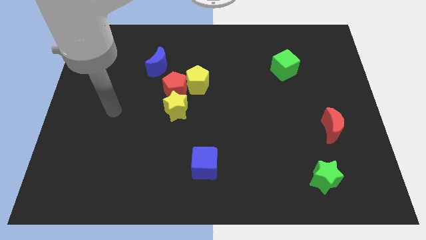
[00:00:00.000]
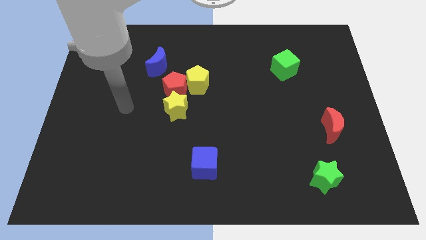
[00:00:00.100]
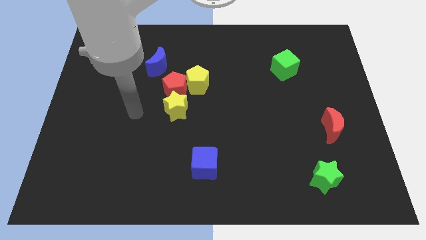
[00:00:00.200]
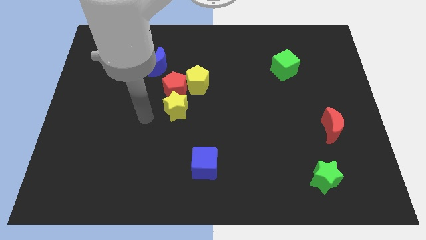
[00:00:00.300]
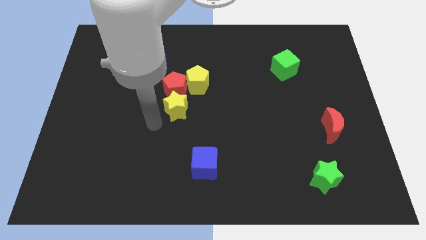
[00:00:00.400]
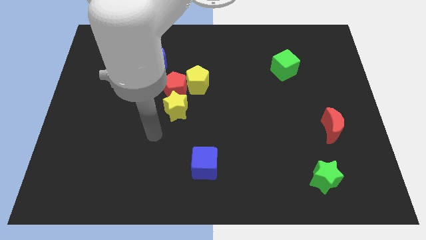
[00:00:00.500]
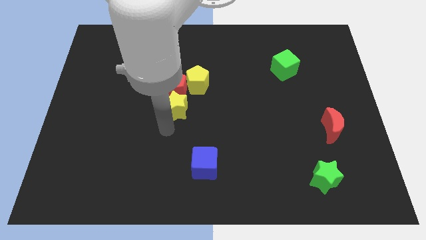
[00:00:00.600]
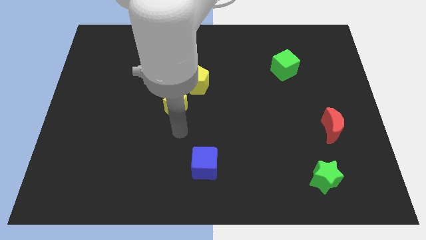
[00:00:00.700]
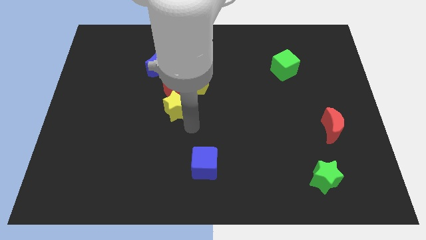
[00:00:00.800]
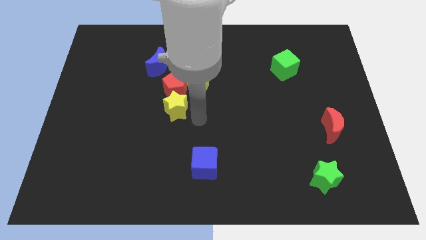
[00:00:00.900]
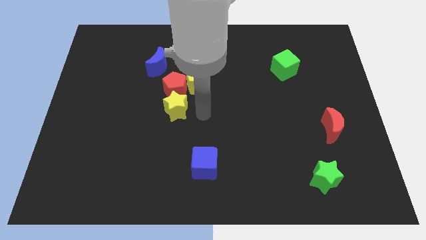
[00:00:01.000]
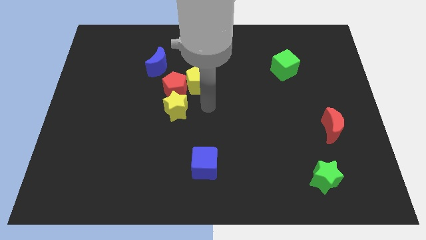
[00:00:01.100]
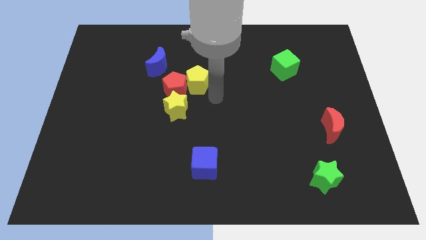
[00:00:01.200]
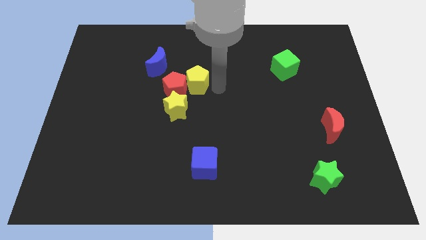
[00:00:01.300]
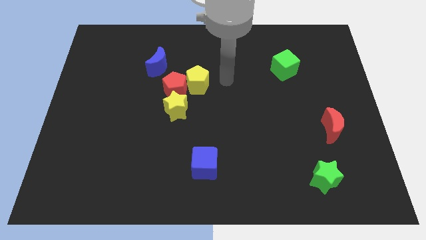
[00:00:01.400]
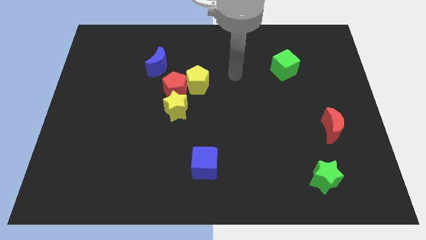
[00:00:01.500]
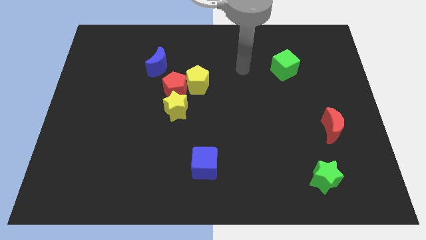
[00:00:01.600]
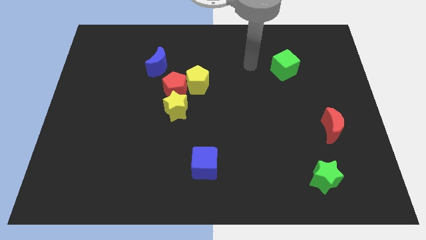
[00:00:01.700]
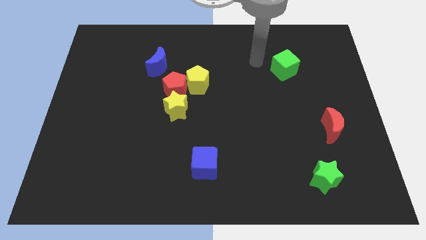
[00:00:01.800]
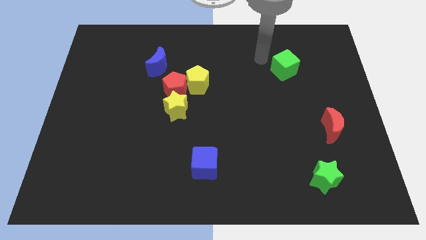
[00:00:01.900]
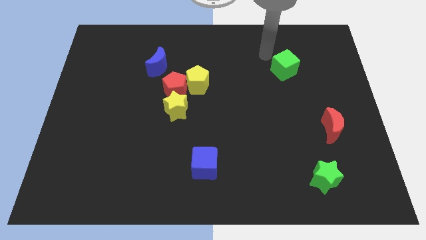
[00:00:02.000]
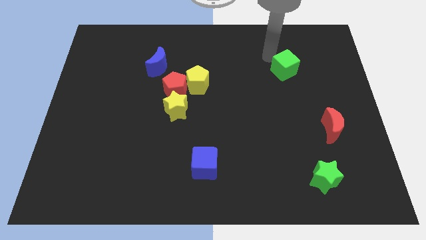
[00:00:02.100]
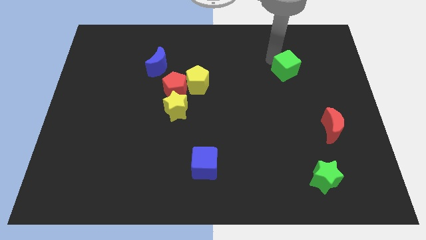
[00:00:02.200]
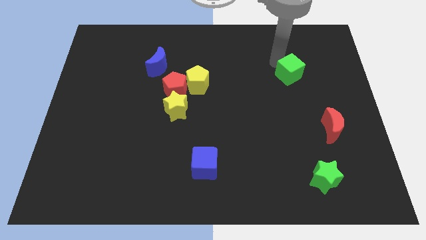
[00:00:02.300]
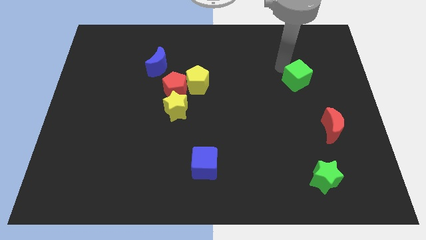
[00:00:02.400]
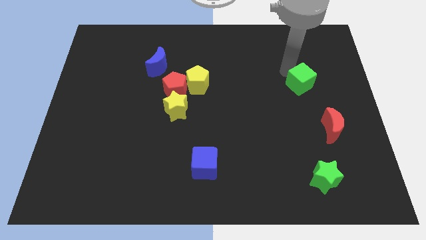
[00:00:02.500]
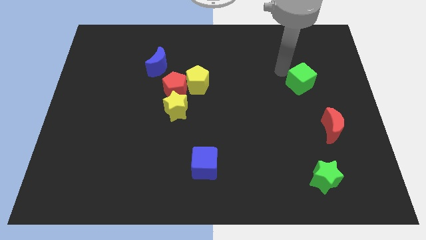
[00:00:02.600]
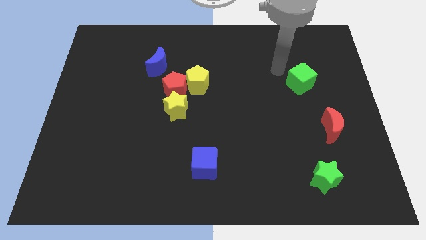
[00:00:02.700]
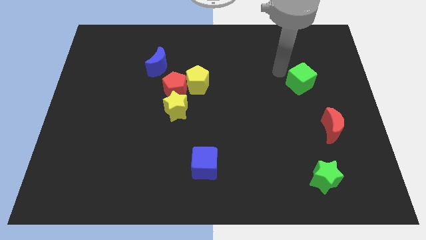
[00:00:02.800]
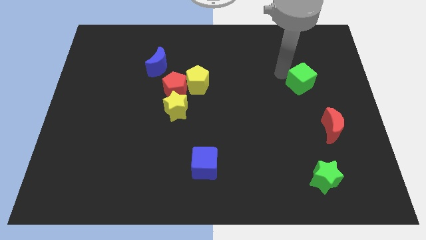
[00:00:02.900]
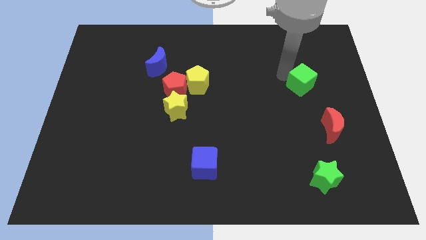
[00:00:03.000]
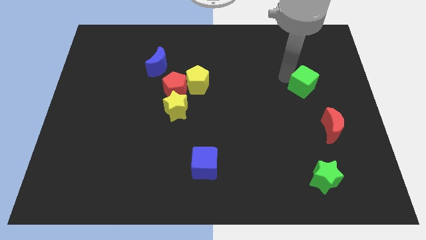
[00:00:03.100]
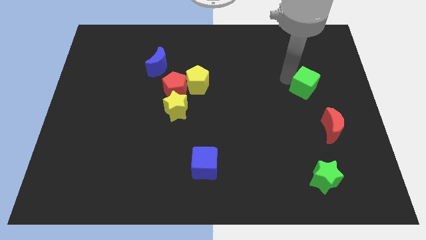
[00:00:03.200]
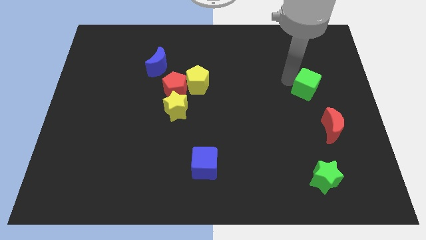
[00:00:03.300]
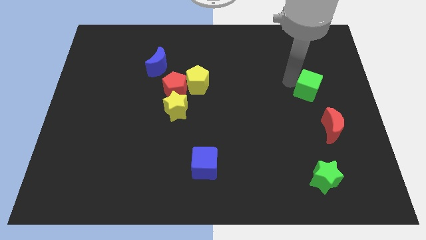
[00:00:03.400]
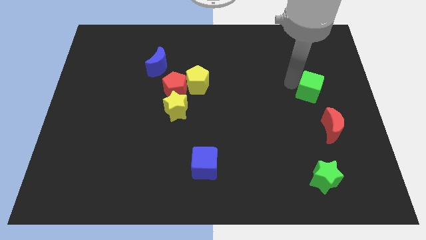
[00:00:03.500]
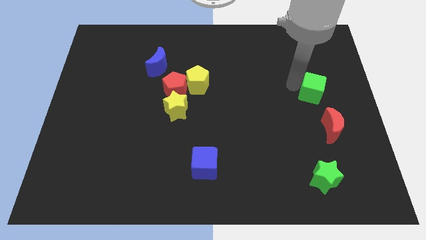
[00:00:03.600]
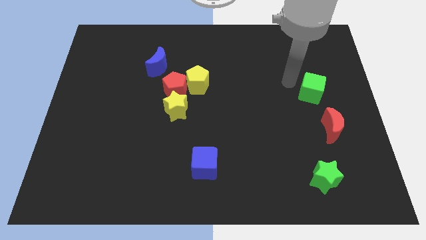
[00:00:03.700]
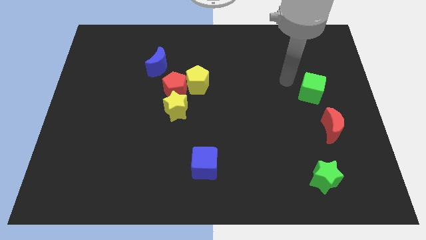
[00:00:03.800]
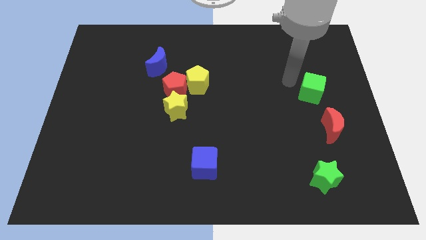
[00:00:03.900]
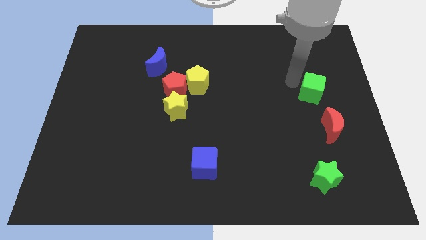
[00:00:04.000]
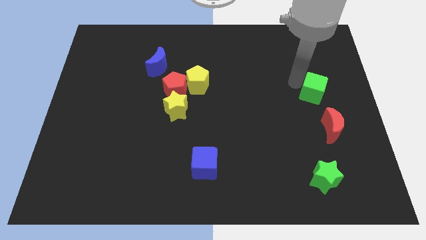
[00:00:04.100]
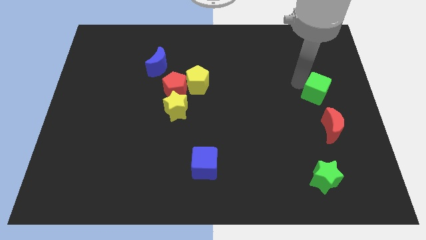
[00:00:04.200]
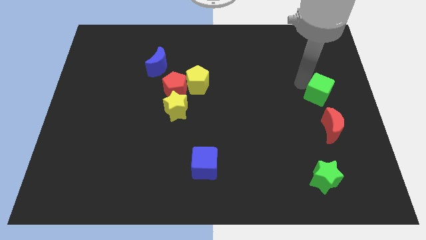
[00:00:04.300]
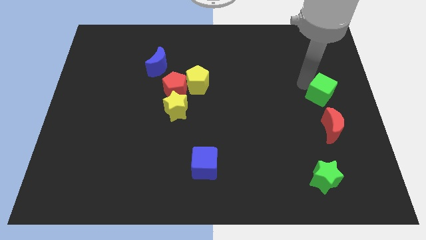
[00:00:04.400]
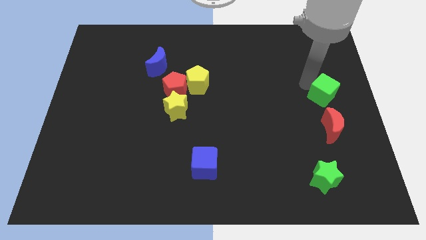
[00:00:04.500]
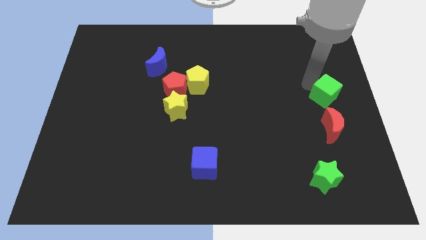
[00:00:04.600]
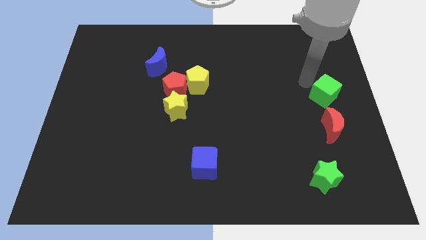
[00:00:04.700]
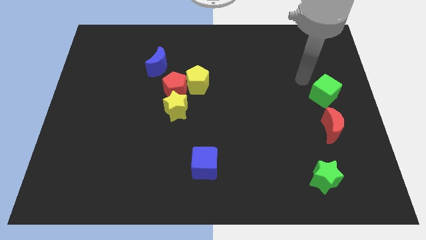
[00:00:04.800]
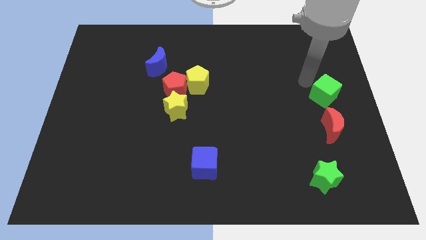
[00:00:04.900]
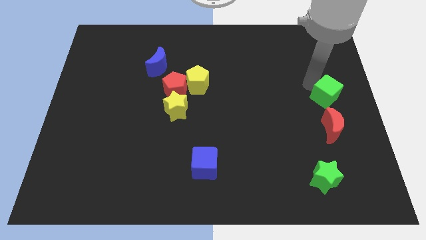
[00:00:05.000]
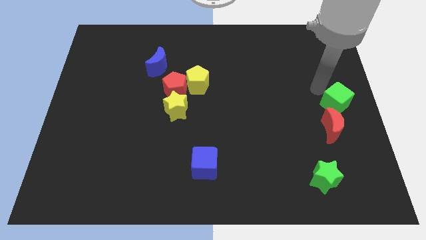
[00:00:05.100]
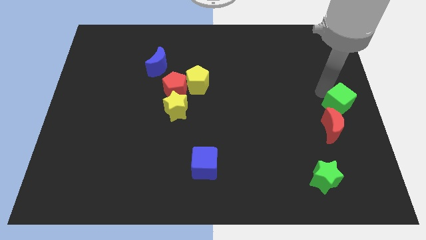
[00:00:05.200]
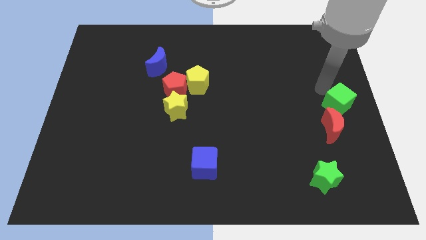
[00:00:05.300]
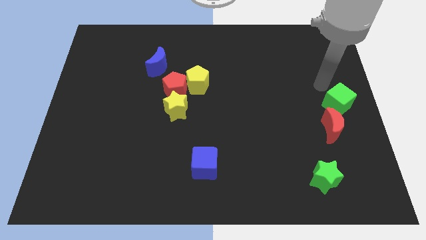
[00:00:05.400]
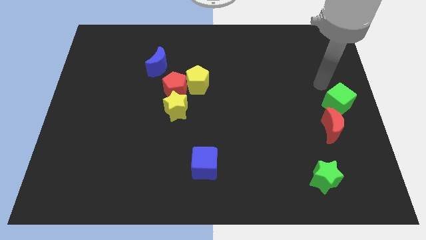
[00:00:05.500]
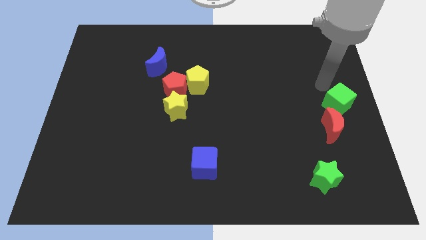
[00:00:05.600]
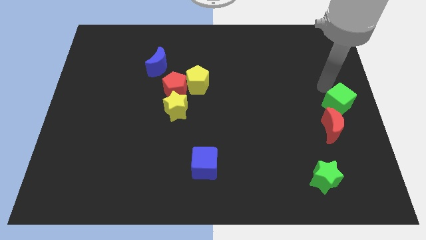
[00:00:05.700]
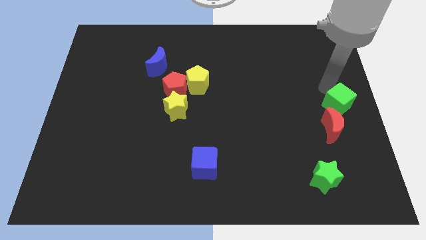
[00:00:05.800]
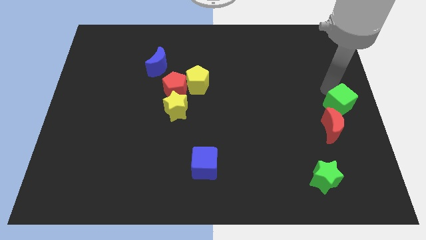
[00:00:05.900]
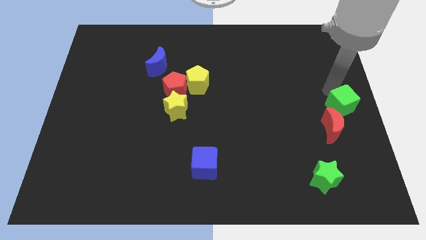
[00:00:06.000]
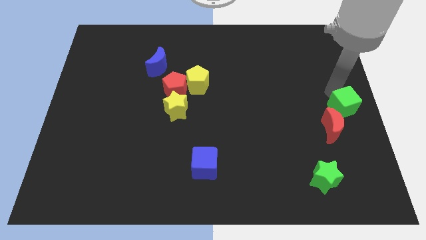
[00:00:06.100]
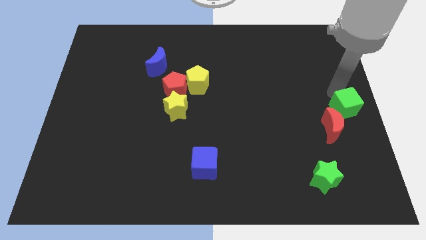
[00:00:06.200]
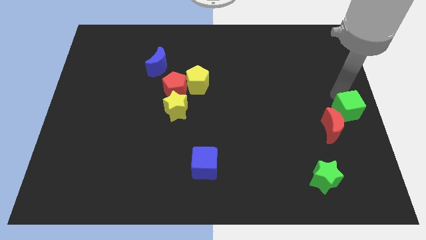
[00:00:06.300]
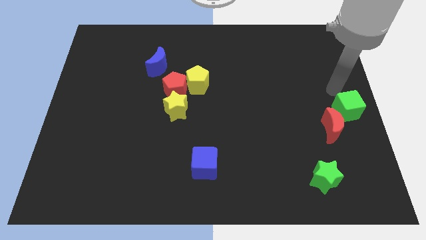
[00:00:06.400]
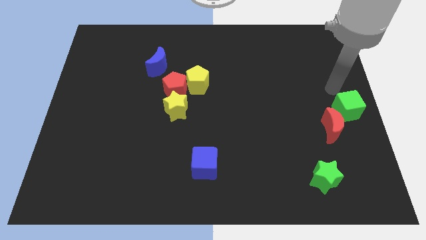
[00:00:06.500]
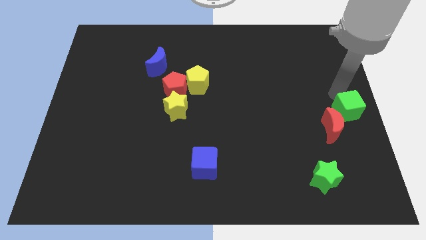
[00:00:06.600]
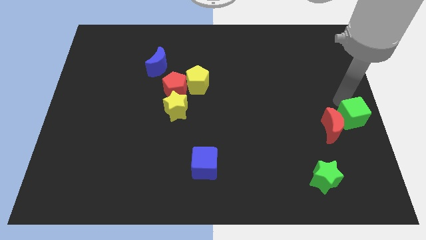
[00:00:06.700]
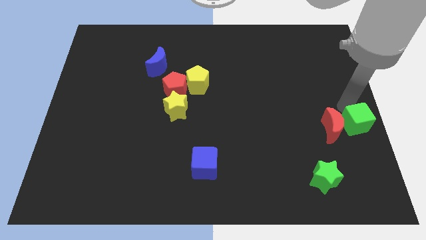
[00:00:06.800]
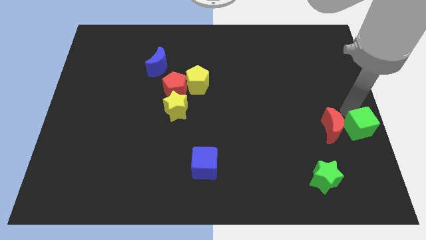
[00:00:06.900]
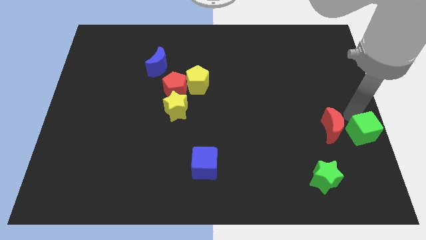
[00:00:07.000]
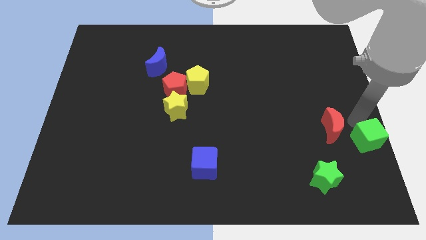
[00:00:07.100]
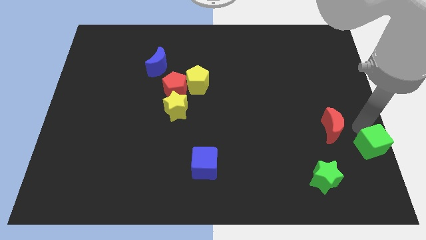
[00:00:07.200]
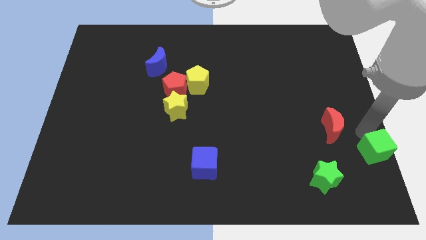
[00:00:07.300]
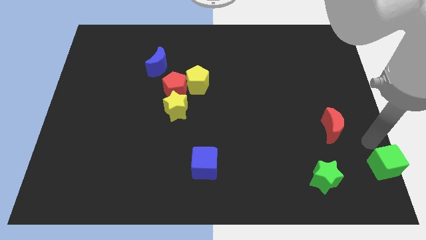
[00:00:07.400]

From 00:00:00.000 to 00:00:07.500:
push the green cube to the bottom right of the board
